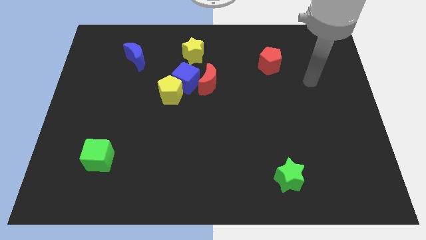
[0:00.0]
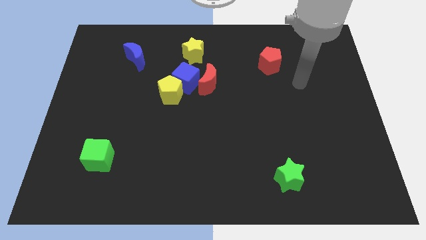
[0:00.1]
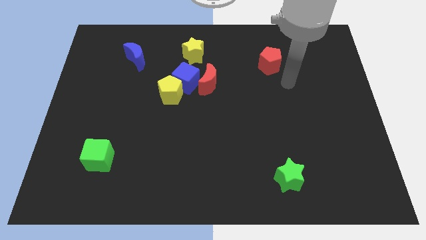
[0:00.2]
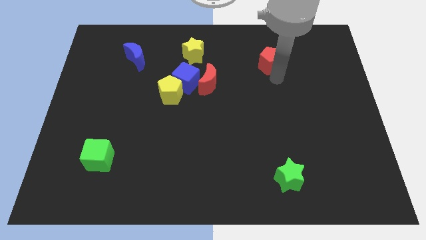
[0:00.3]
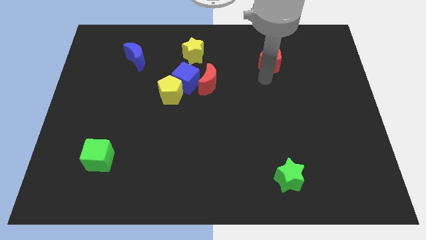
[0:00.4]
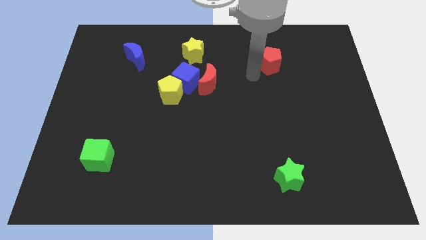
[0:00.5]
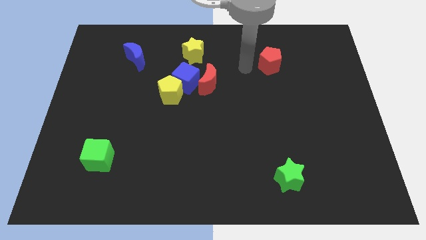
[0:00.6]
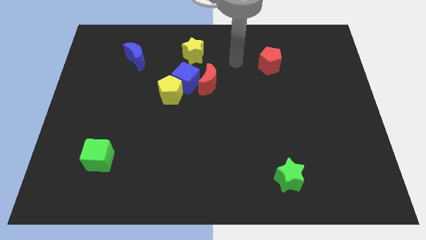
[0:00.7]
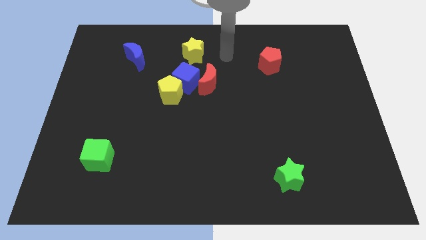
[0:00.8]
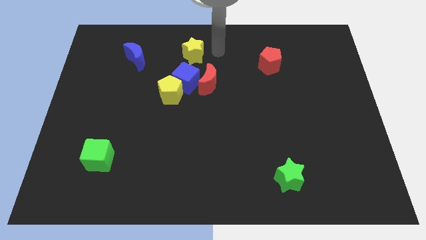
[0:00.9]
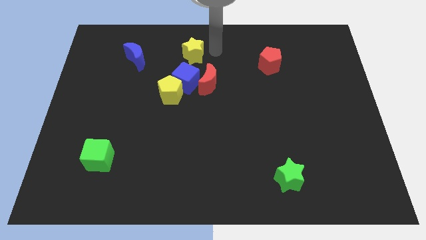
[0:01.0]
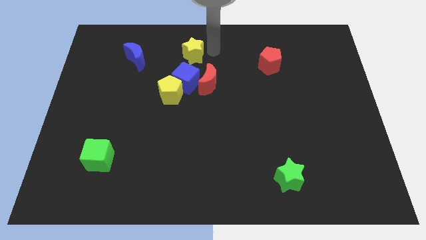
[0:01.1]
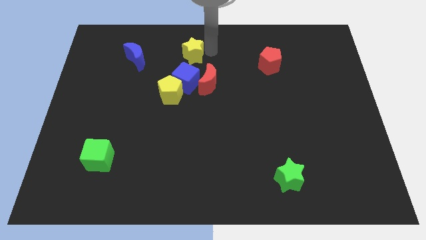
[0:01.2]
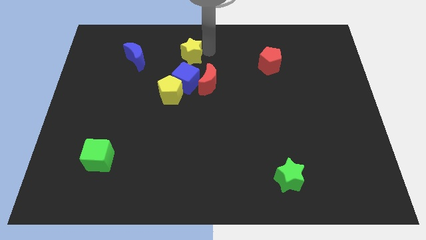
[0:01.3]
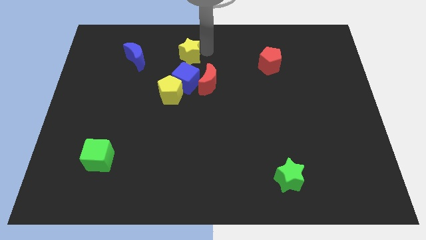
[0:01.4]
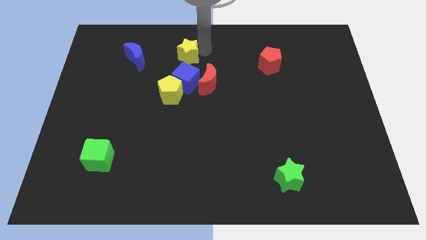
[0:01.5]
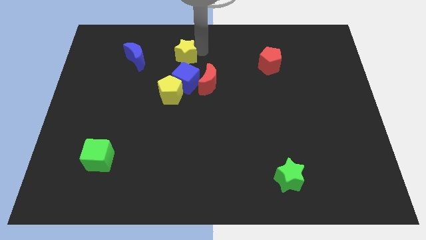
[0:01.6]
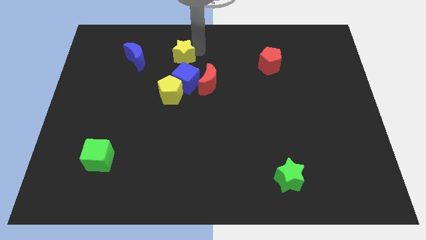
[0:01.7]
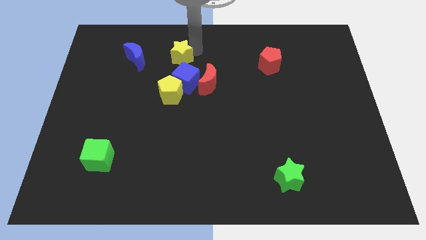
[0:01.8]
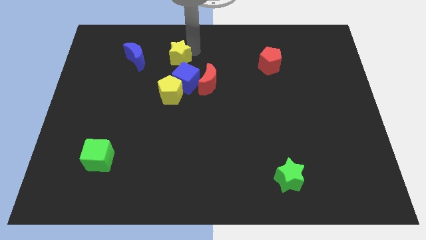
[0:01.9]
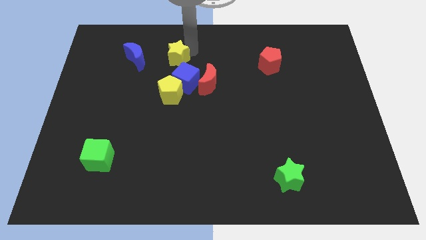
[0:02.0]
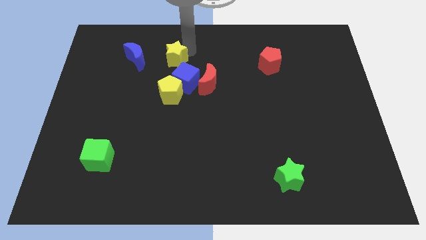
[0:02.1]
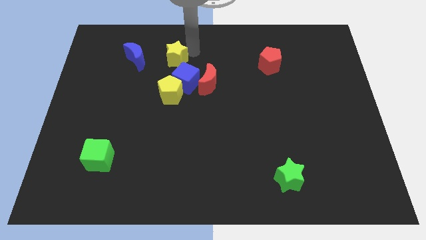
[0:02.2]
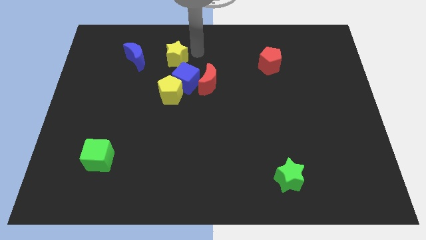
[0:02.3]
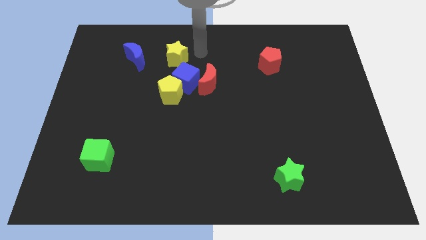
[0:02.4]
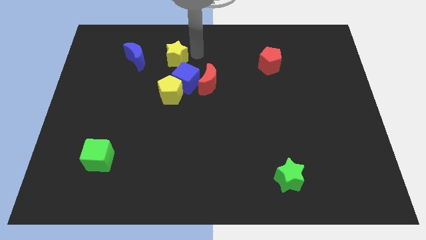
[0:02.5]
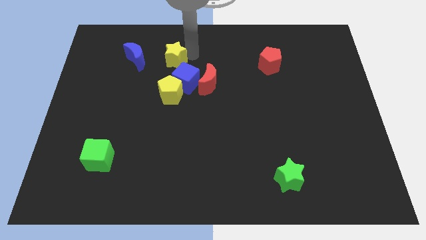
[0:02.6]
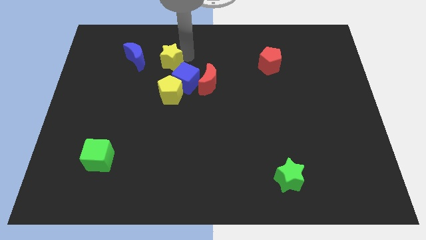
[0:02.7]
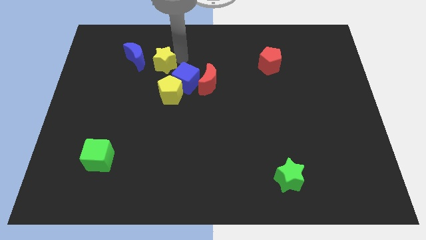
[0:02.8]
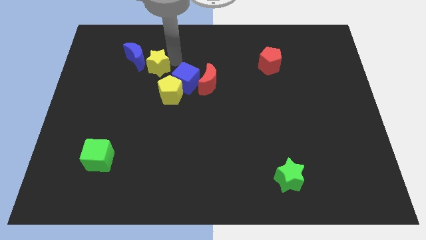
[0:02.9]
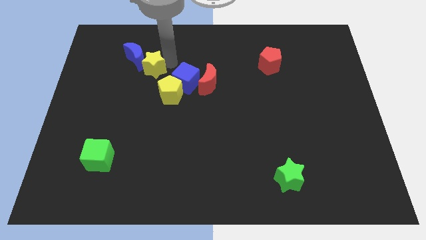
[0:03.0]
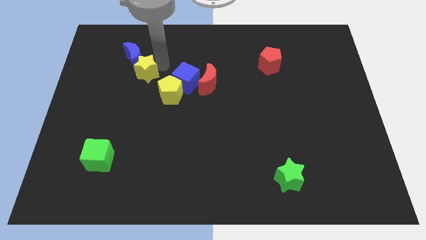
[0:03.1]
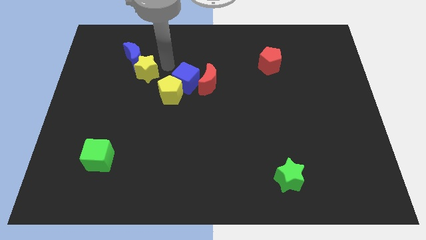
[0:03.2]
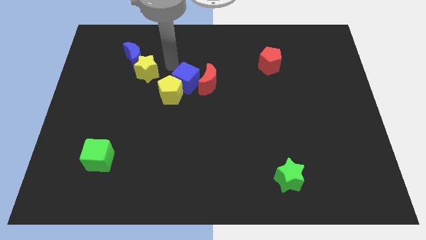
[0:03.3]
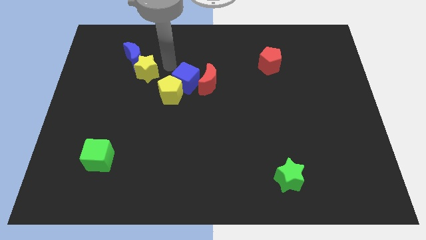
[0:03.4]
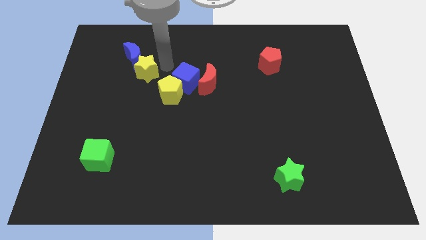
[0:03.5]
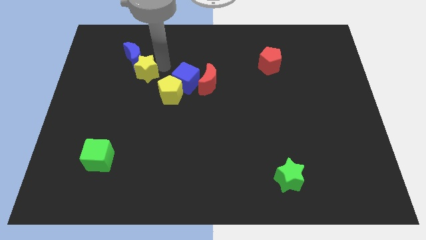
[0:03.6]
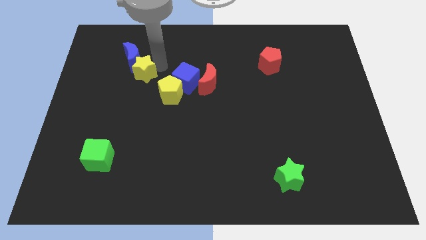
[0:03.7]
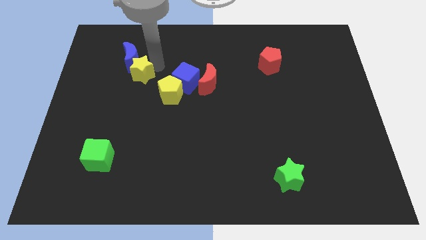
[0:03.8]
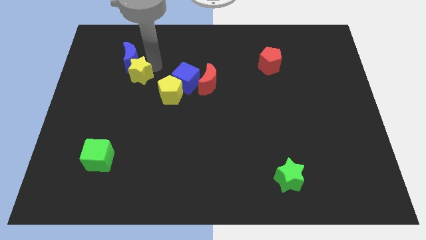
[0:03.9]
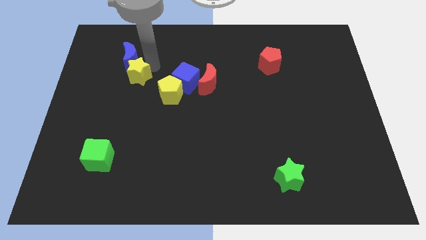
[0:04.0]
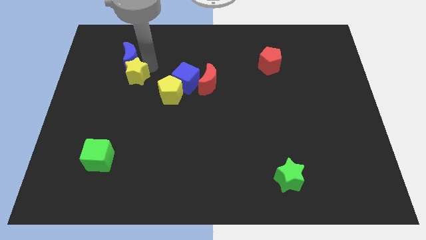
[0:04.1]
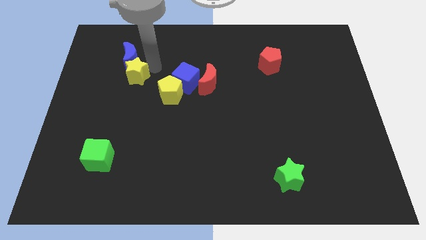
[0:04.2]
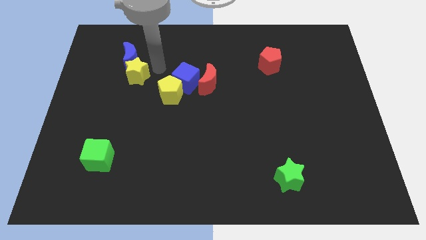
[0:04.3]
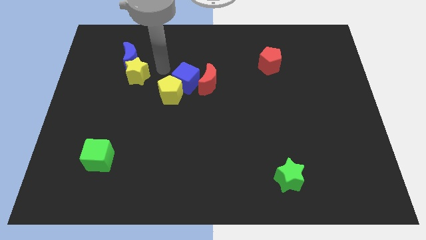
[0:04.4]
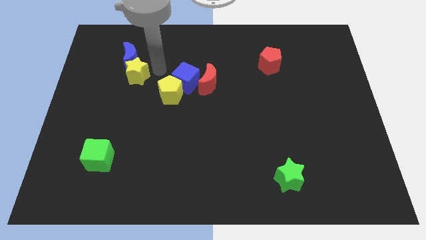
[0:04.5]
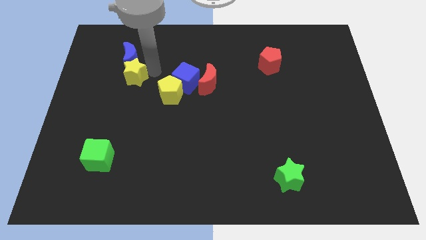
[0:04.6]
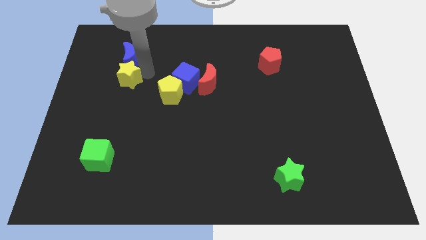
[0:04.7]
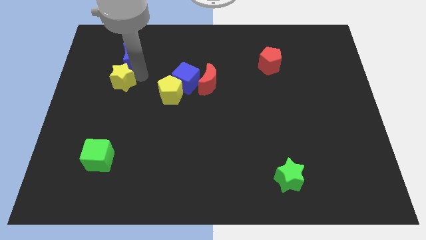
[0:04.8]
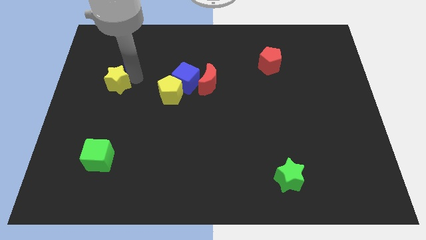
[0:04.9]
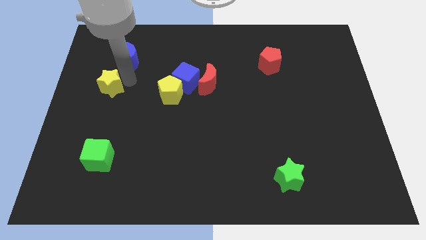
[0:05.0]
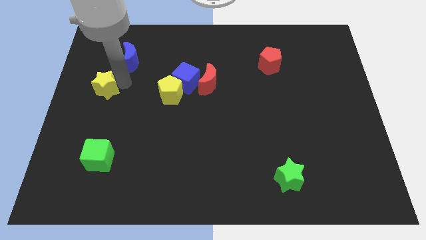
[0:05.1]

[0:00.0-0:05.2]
put the yellow star to the center left

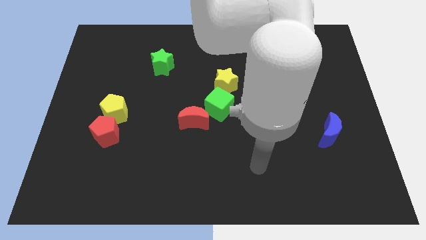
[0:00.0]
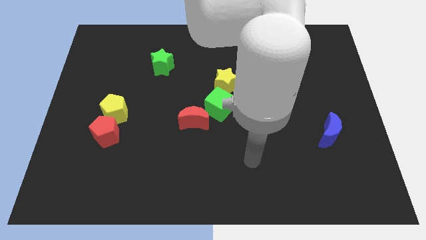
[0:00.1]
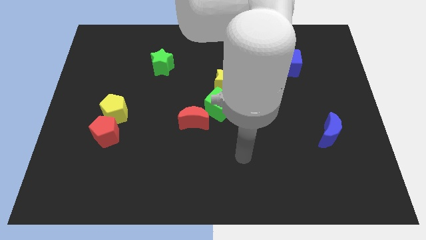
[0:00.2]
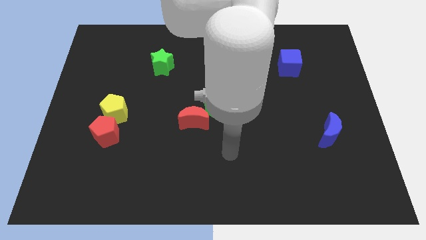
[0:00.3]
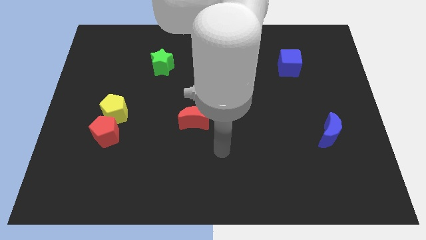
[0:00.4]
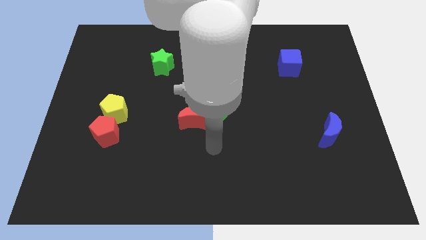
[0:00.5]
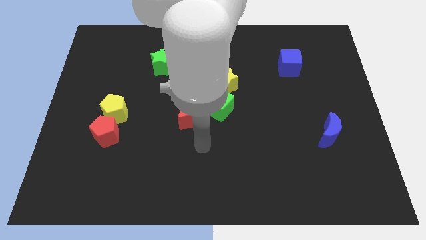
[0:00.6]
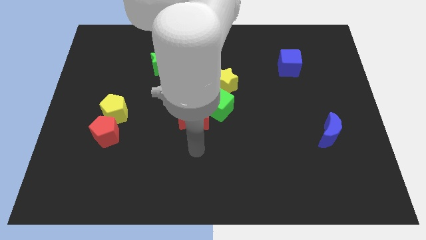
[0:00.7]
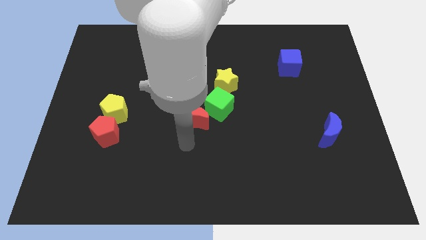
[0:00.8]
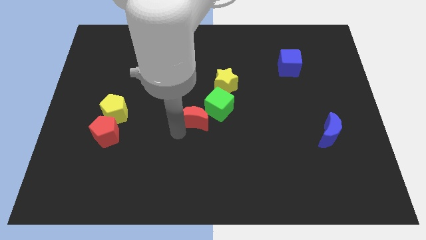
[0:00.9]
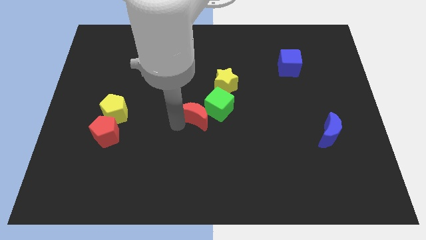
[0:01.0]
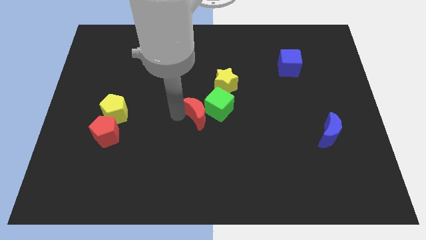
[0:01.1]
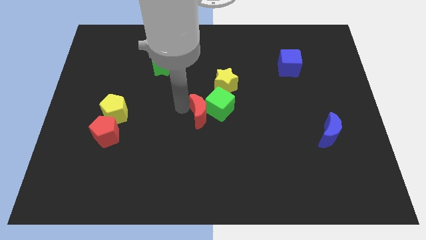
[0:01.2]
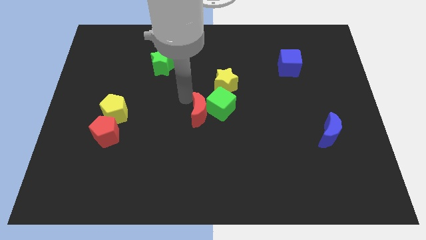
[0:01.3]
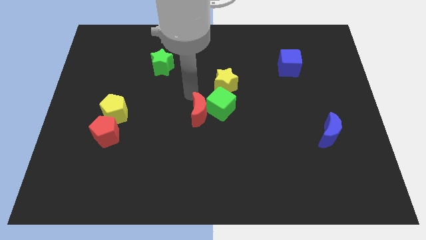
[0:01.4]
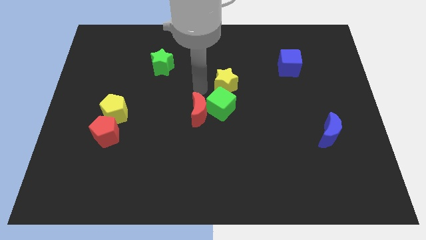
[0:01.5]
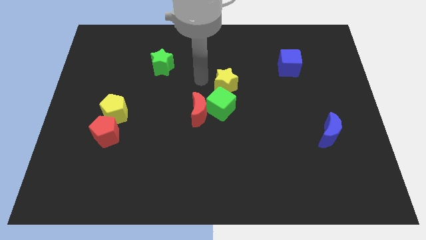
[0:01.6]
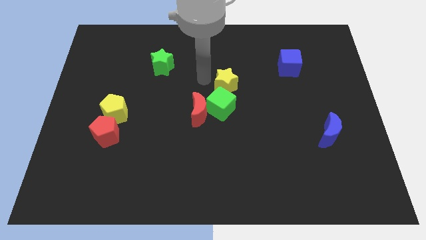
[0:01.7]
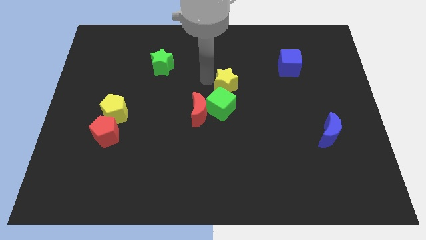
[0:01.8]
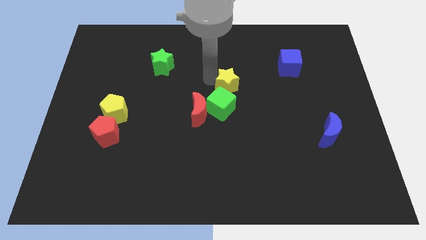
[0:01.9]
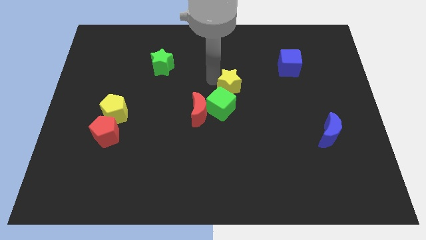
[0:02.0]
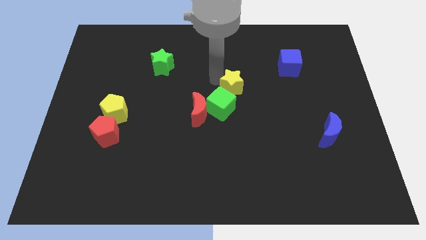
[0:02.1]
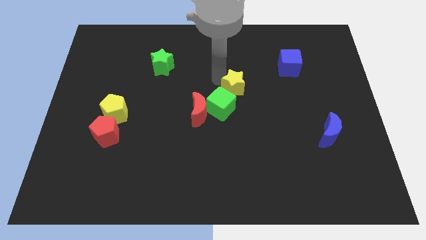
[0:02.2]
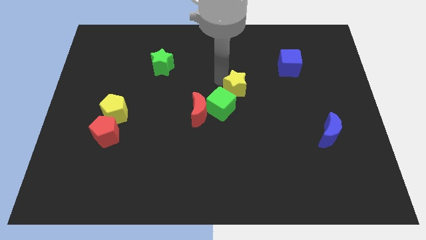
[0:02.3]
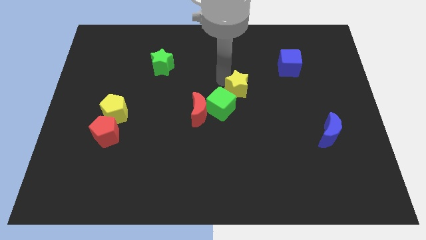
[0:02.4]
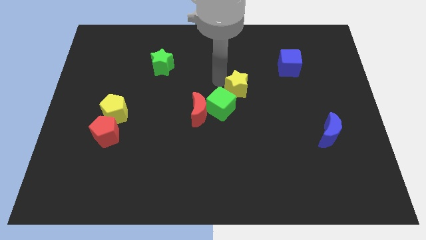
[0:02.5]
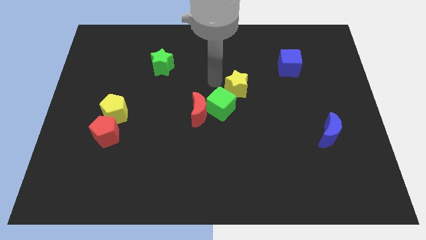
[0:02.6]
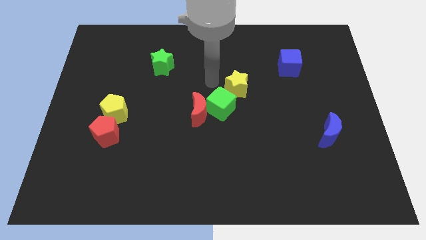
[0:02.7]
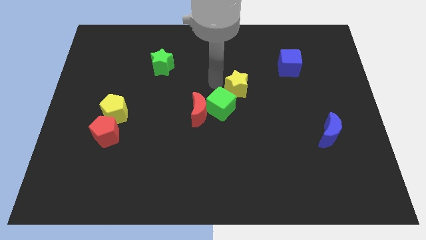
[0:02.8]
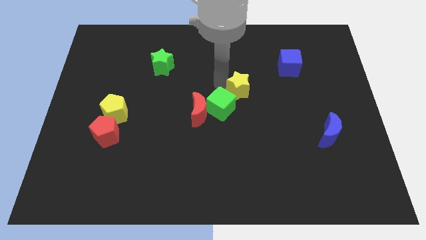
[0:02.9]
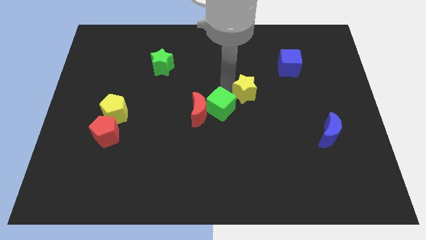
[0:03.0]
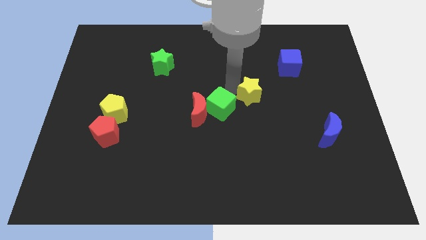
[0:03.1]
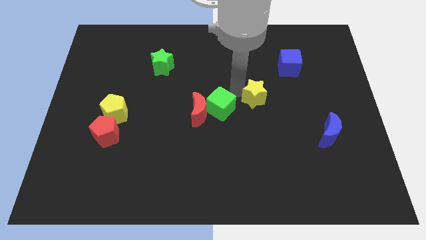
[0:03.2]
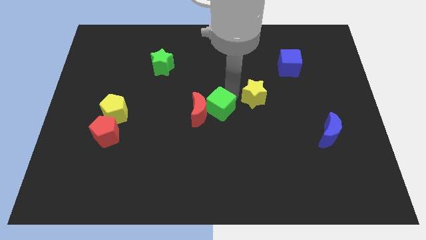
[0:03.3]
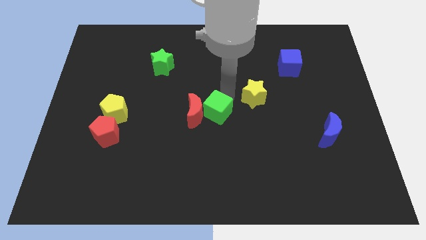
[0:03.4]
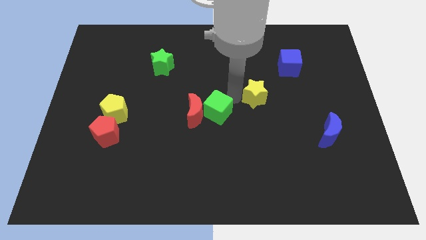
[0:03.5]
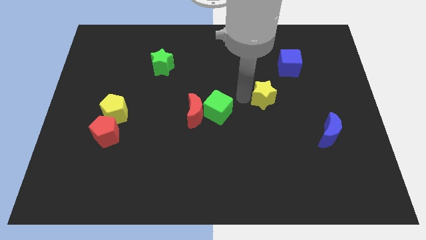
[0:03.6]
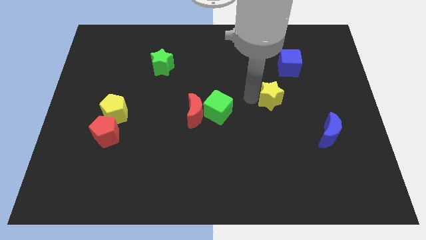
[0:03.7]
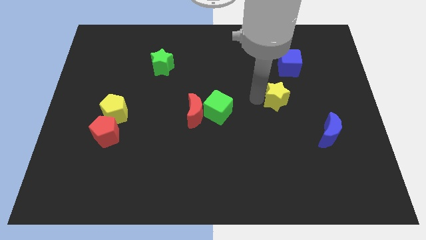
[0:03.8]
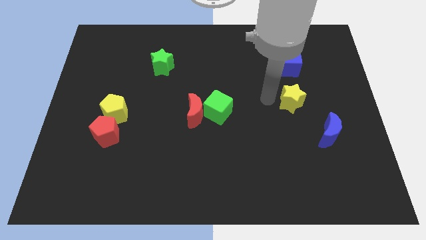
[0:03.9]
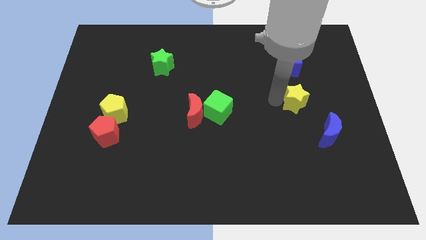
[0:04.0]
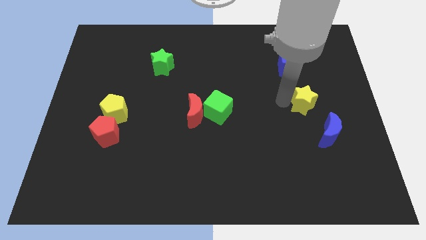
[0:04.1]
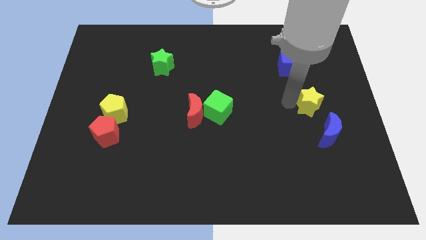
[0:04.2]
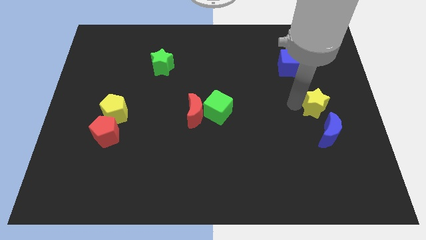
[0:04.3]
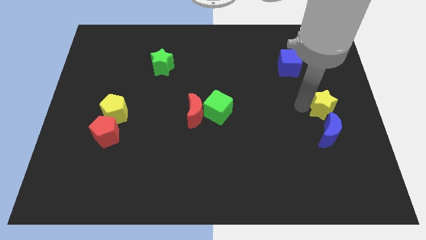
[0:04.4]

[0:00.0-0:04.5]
push the yellow star to the center right
